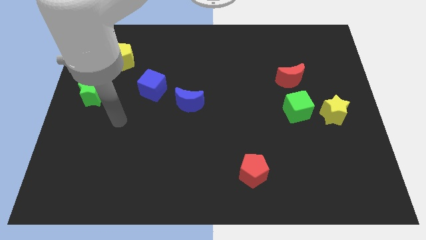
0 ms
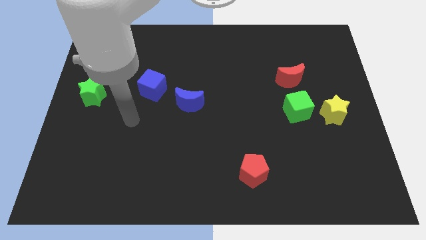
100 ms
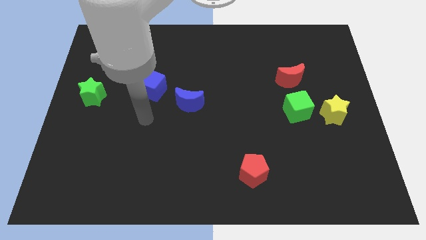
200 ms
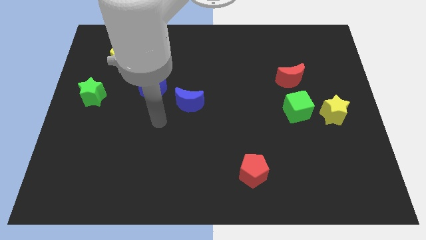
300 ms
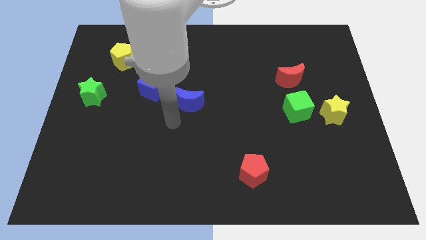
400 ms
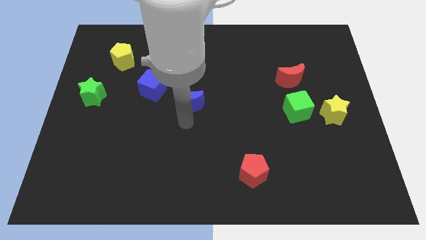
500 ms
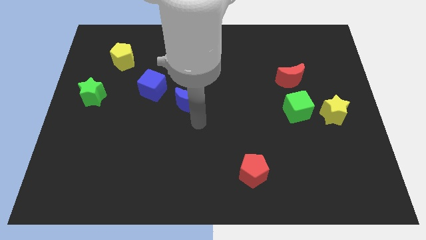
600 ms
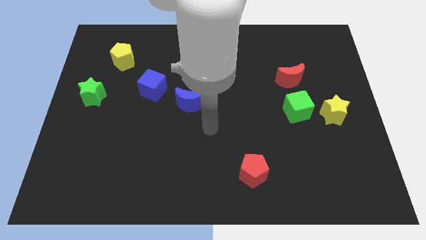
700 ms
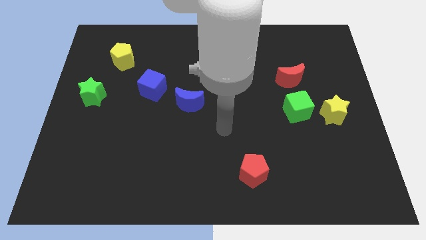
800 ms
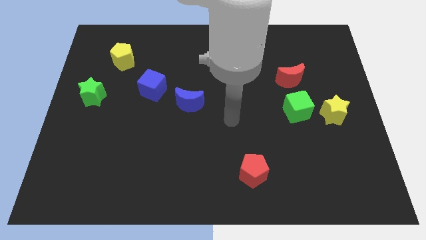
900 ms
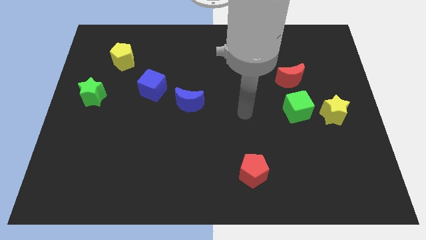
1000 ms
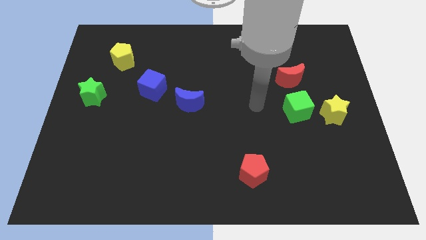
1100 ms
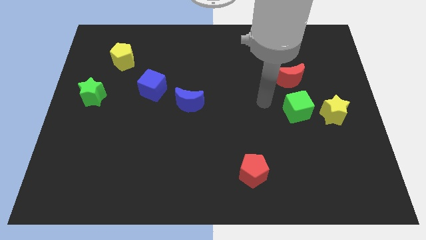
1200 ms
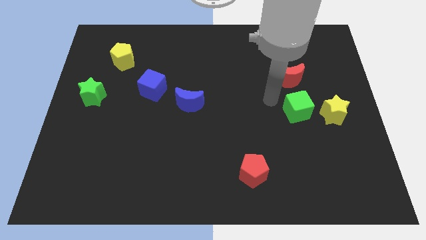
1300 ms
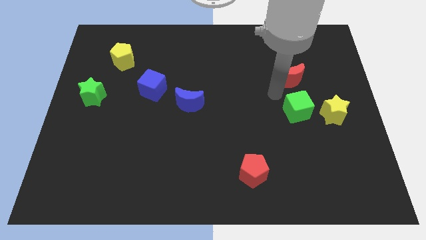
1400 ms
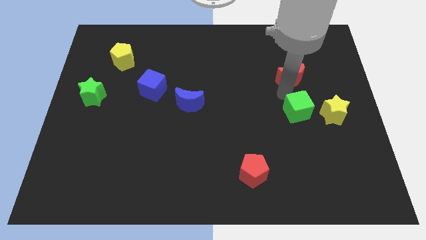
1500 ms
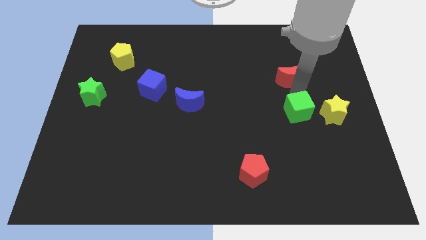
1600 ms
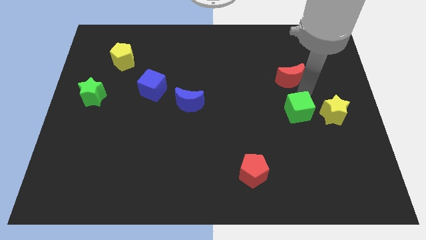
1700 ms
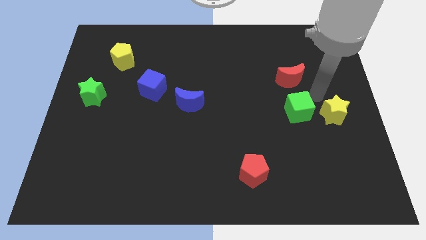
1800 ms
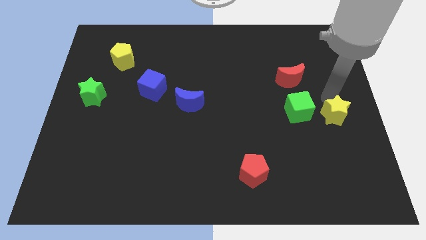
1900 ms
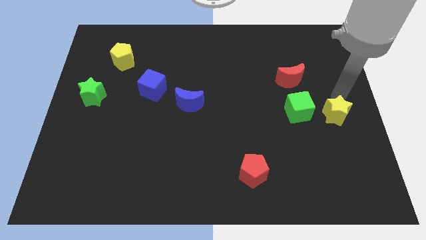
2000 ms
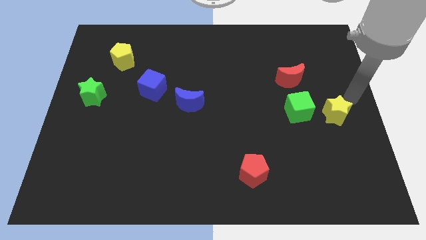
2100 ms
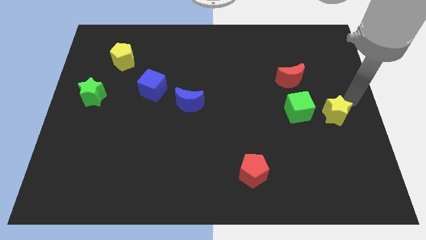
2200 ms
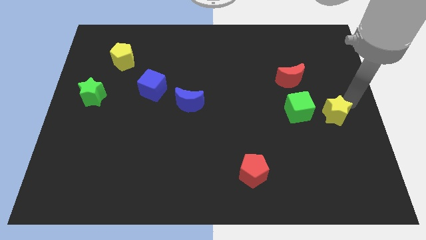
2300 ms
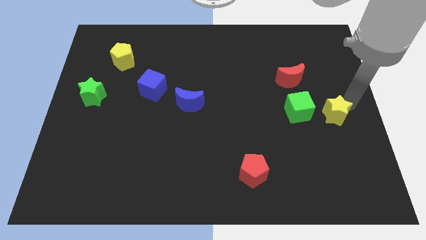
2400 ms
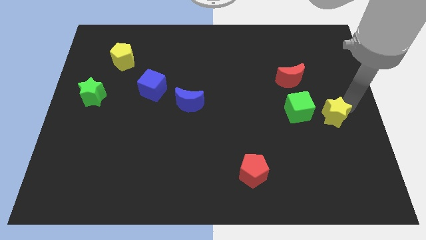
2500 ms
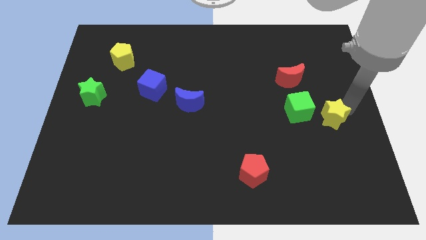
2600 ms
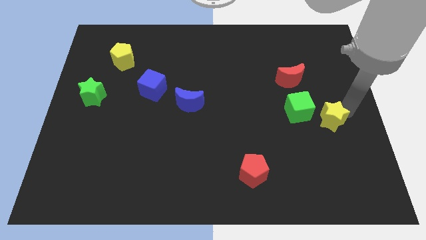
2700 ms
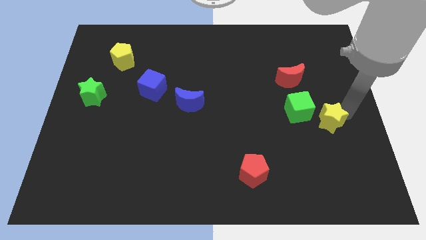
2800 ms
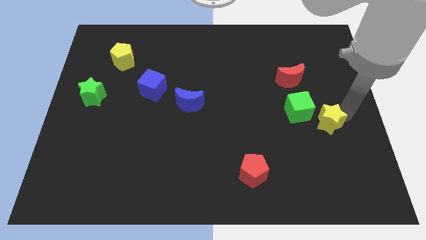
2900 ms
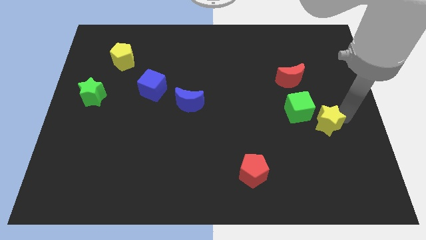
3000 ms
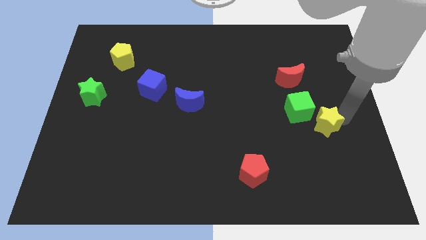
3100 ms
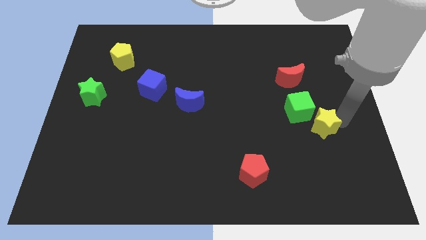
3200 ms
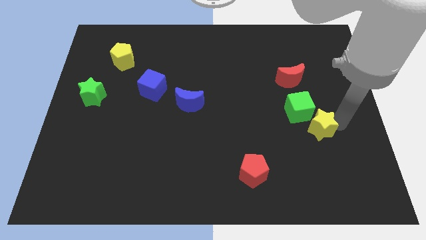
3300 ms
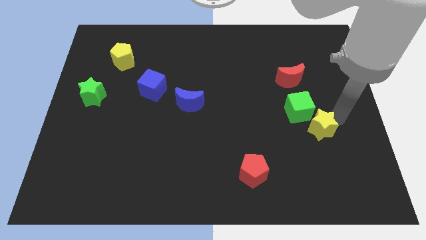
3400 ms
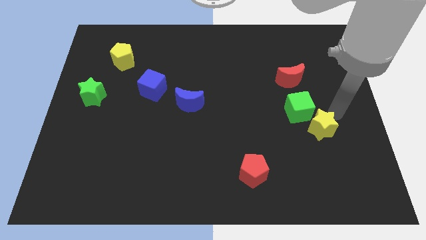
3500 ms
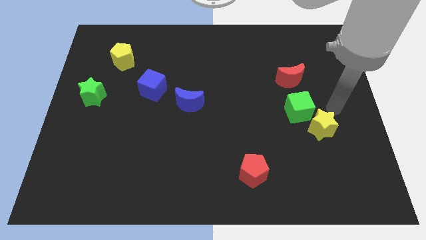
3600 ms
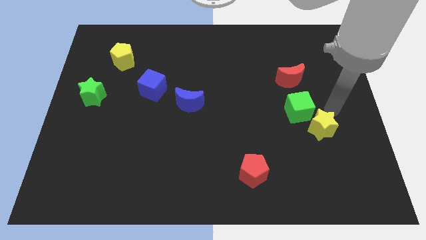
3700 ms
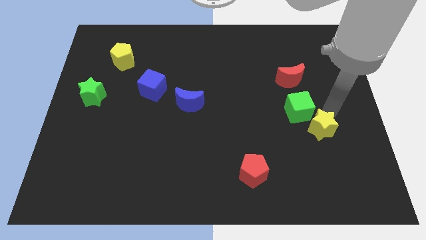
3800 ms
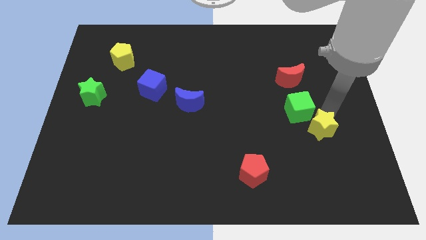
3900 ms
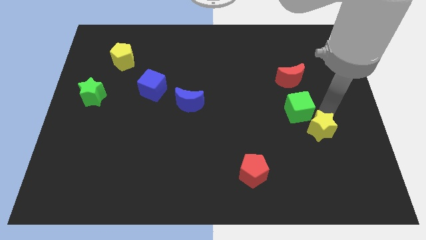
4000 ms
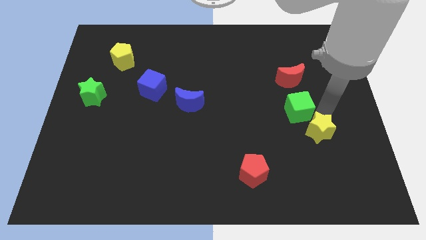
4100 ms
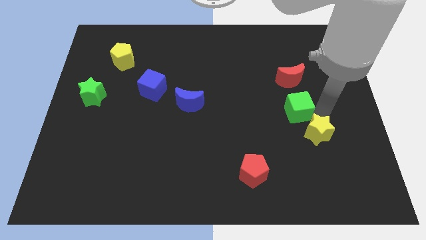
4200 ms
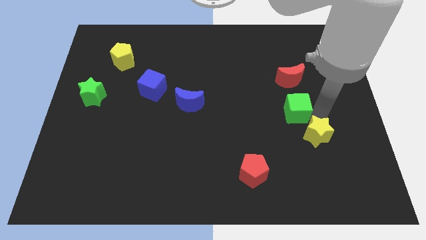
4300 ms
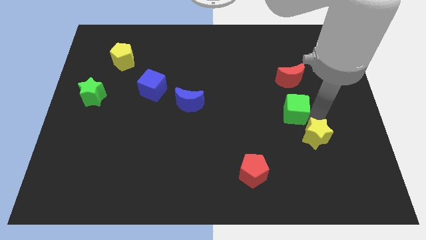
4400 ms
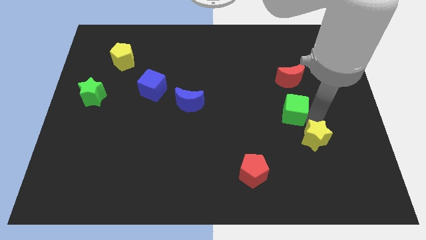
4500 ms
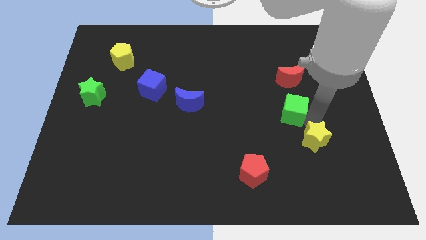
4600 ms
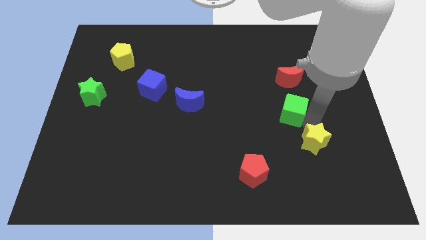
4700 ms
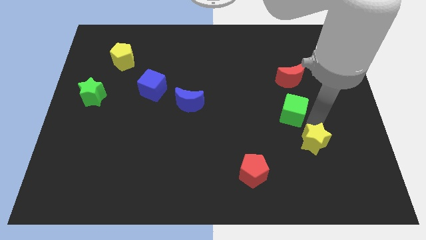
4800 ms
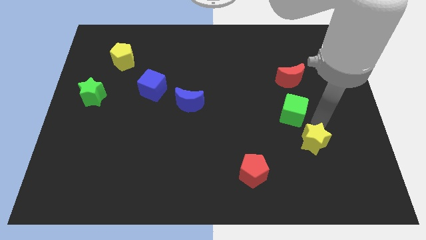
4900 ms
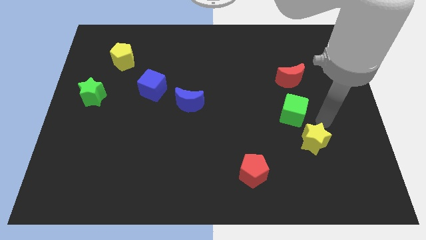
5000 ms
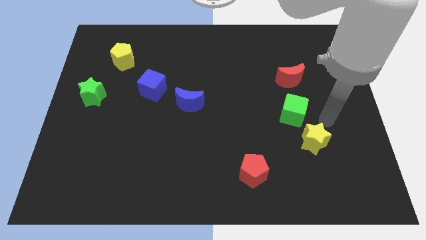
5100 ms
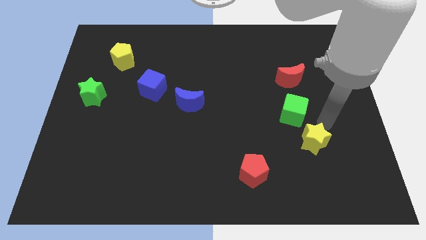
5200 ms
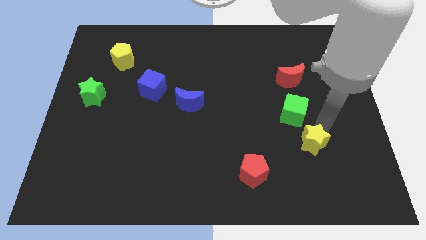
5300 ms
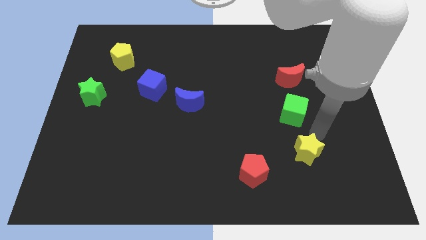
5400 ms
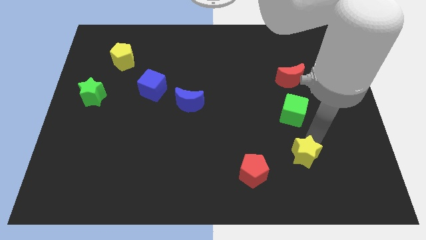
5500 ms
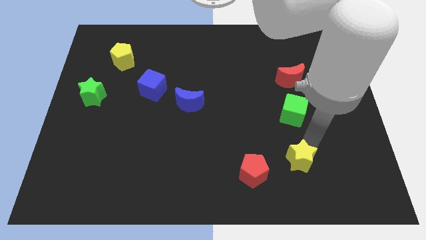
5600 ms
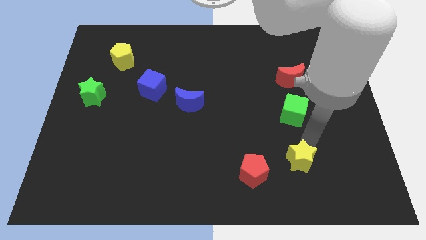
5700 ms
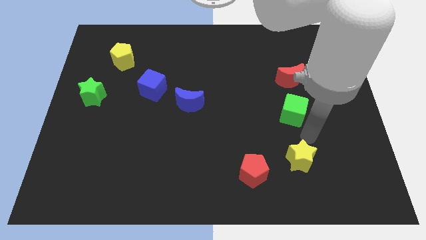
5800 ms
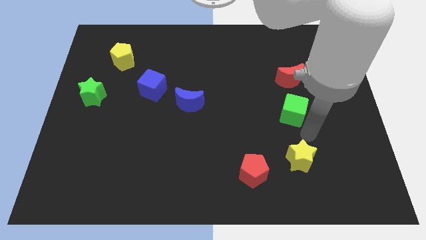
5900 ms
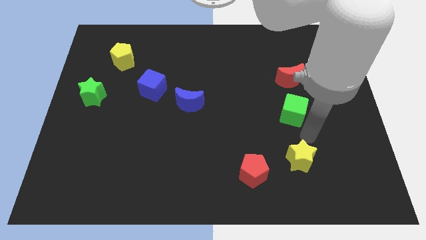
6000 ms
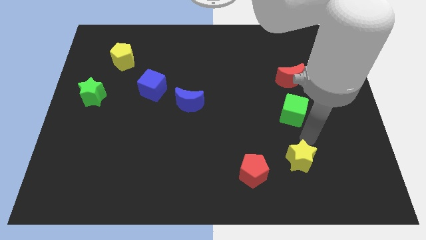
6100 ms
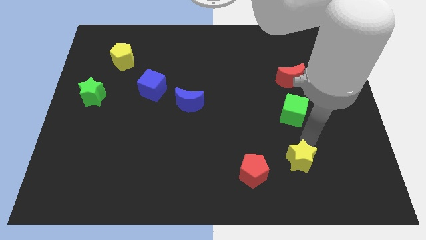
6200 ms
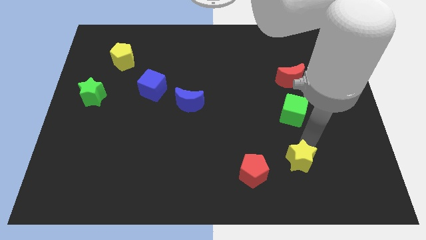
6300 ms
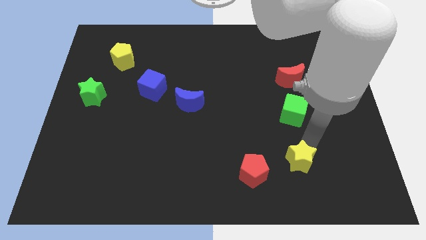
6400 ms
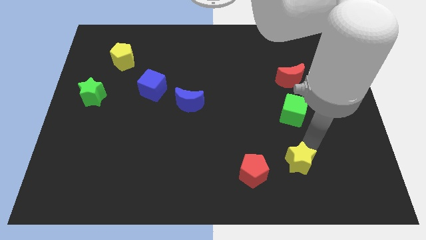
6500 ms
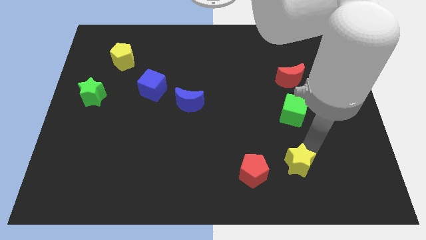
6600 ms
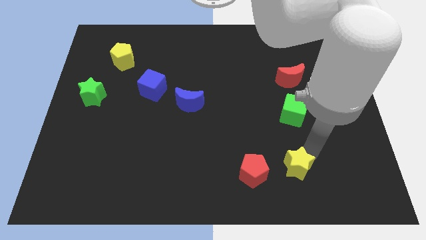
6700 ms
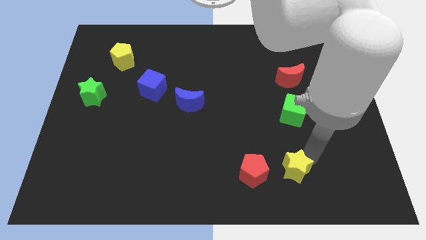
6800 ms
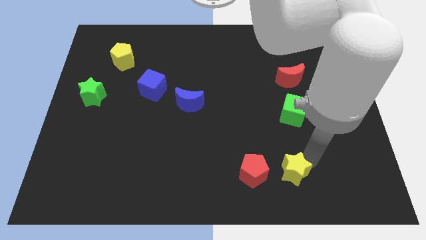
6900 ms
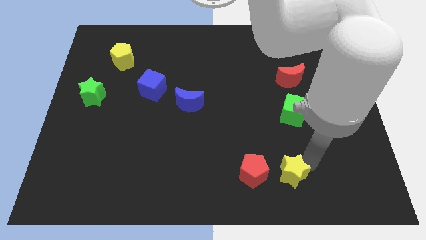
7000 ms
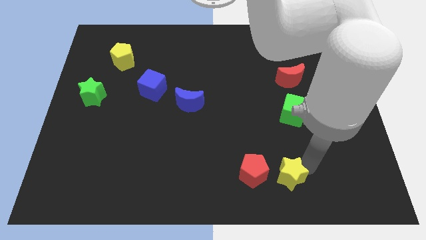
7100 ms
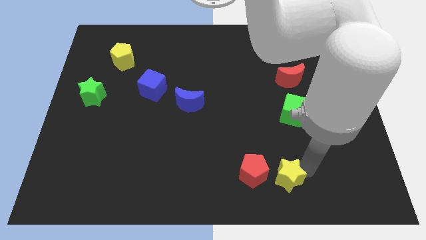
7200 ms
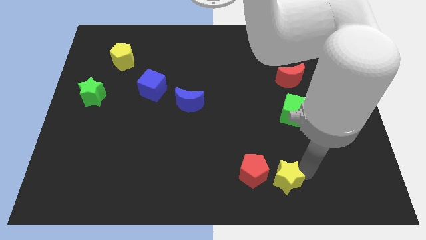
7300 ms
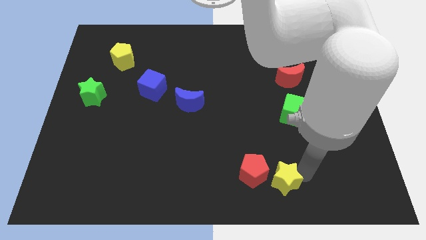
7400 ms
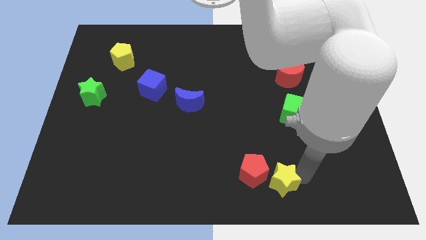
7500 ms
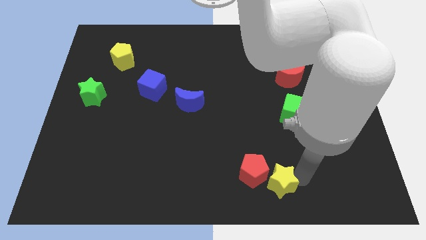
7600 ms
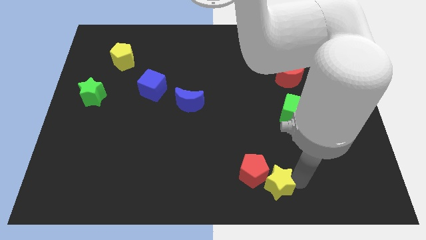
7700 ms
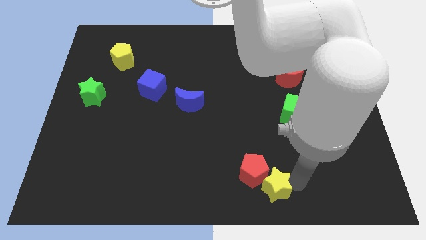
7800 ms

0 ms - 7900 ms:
push the yellow star to the bottom side
